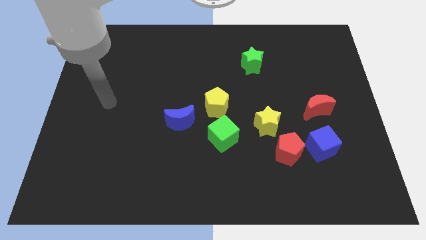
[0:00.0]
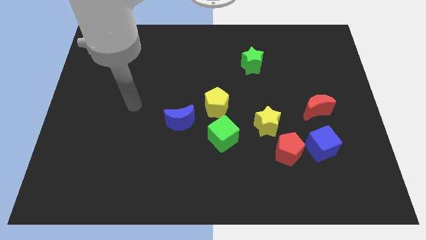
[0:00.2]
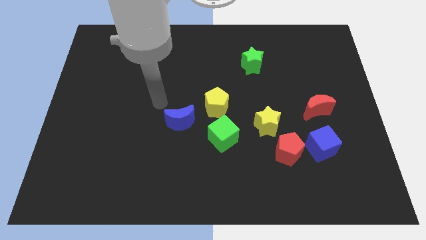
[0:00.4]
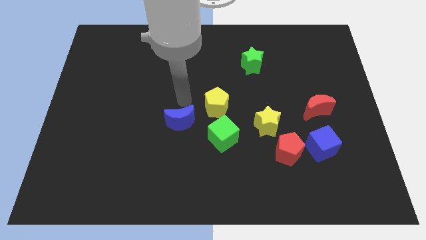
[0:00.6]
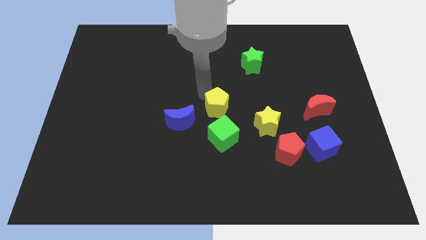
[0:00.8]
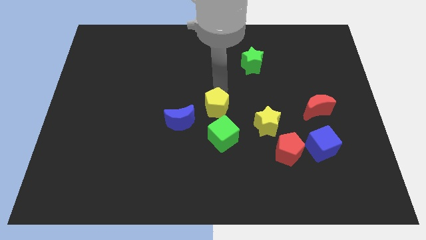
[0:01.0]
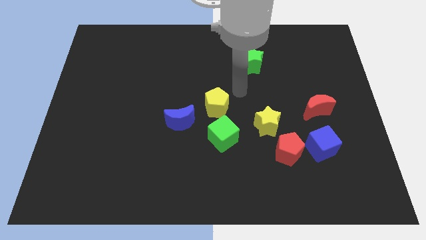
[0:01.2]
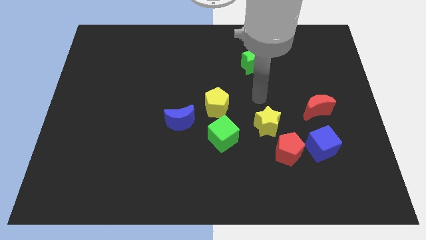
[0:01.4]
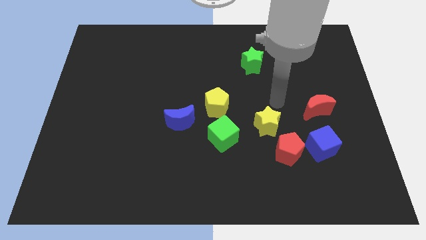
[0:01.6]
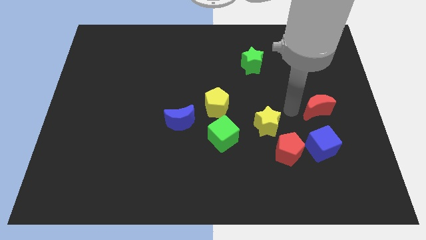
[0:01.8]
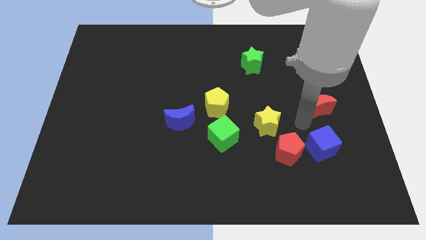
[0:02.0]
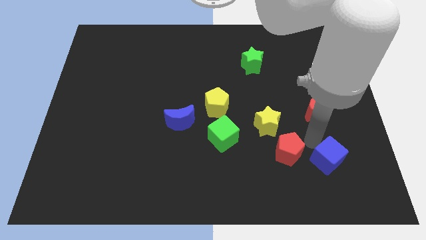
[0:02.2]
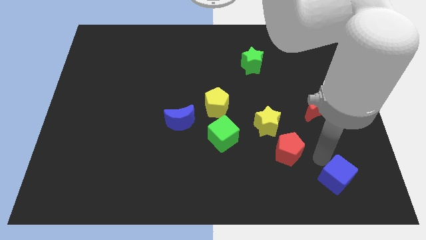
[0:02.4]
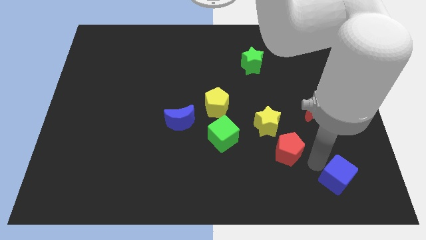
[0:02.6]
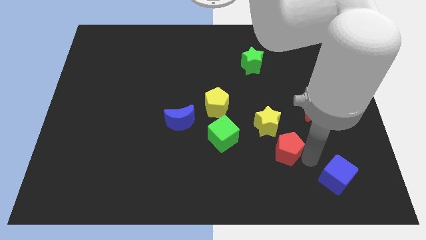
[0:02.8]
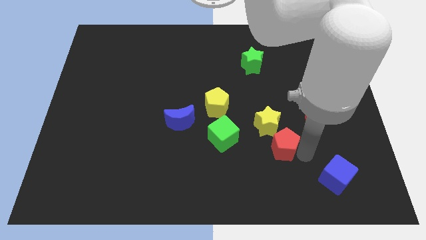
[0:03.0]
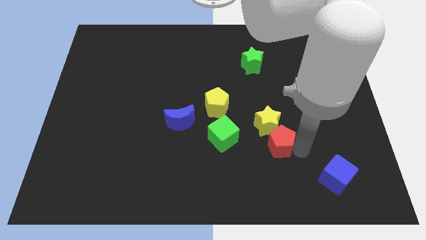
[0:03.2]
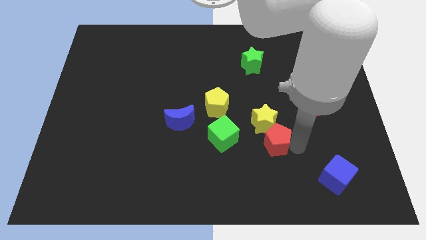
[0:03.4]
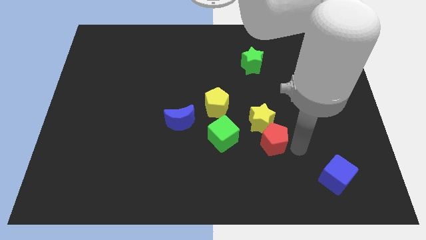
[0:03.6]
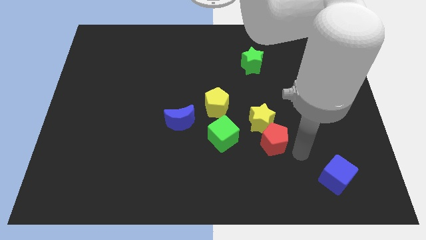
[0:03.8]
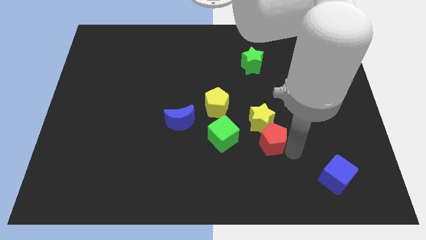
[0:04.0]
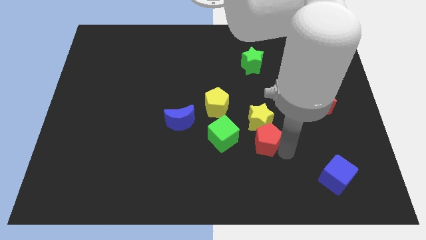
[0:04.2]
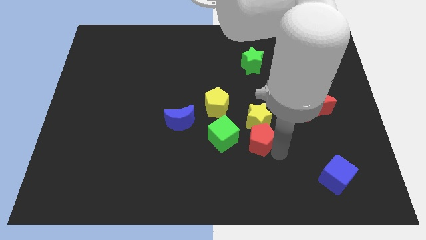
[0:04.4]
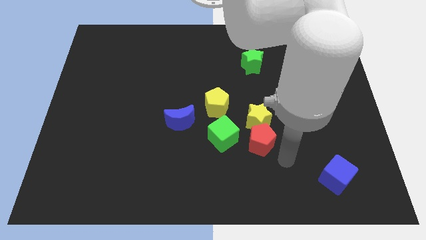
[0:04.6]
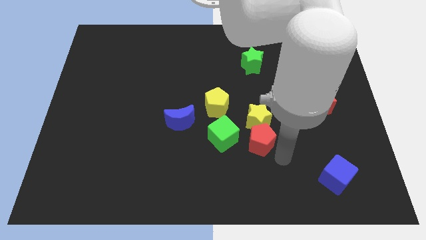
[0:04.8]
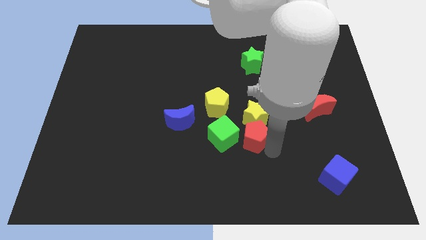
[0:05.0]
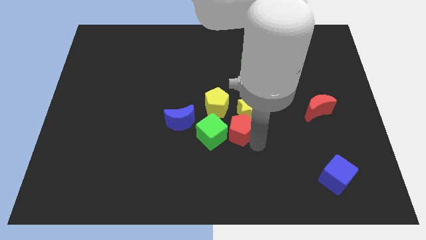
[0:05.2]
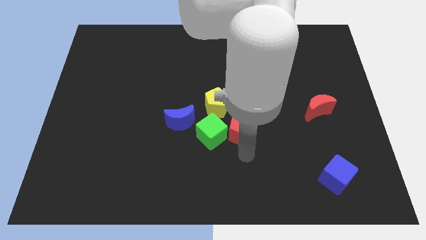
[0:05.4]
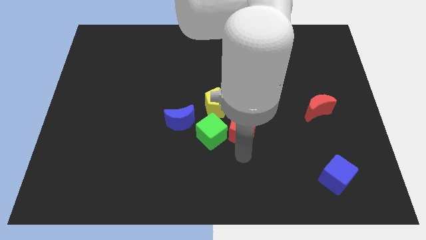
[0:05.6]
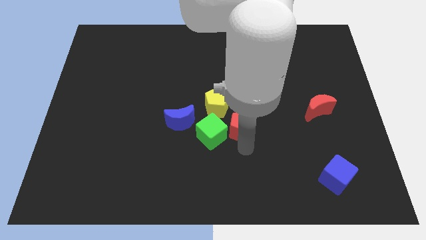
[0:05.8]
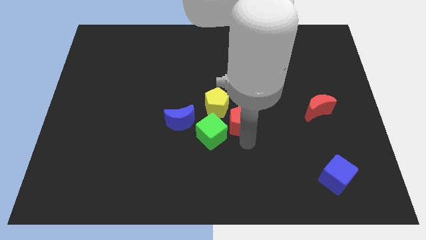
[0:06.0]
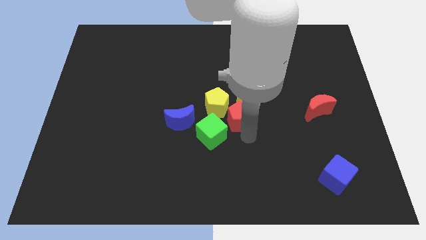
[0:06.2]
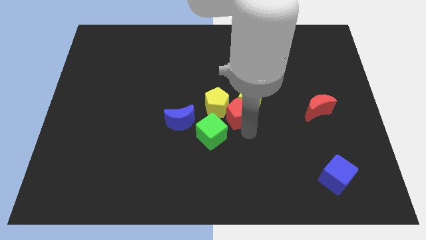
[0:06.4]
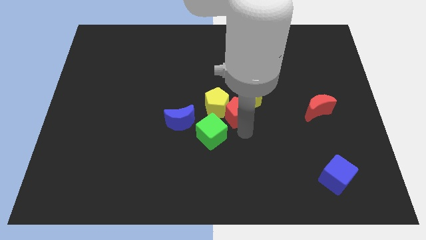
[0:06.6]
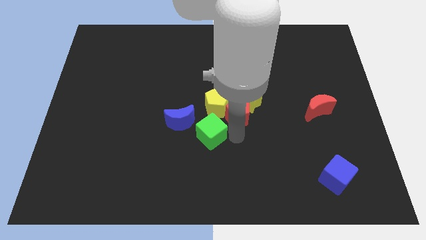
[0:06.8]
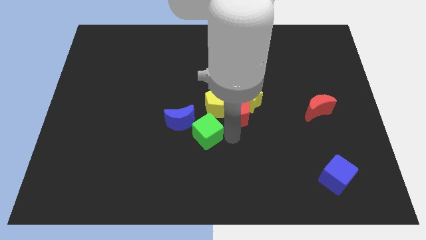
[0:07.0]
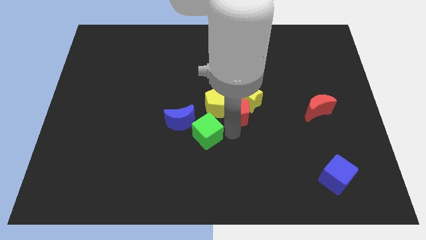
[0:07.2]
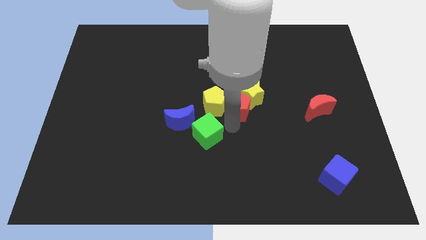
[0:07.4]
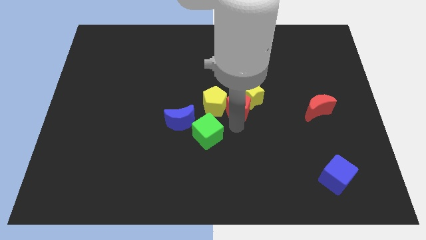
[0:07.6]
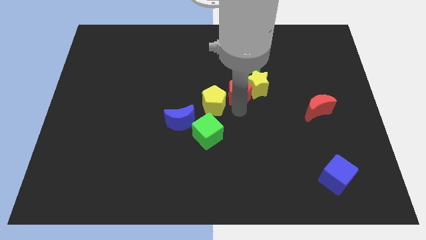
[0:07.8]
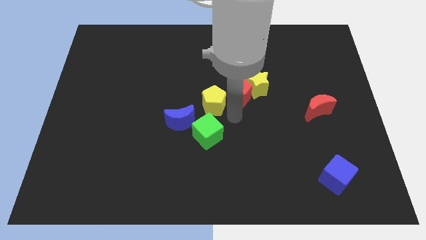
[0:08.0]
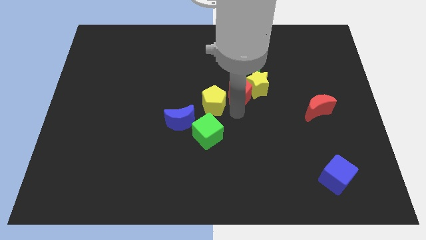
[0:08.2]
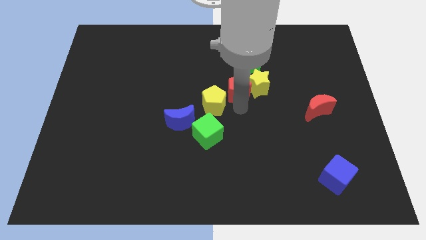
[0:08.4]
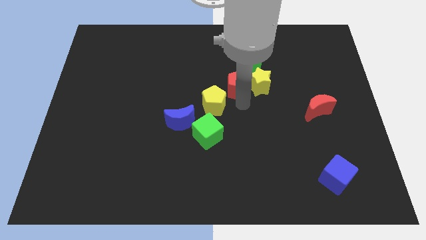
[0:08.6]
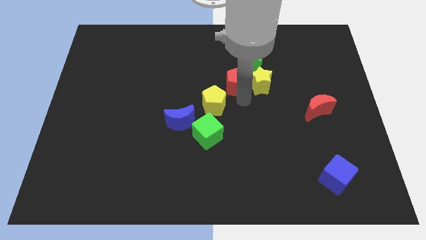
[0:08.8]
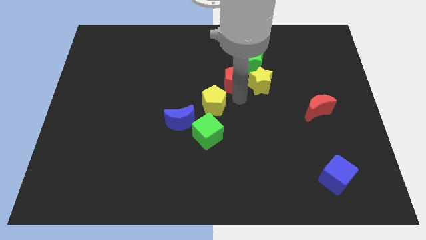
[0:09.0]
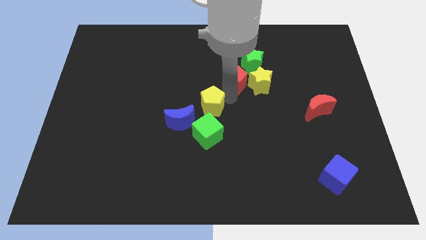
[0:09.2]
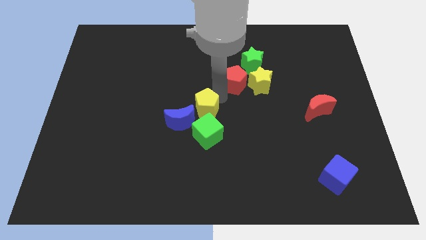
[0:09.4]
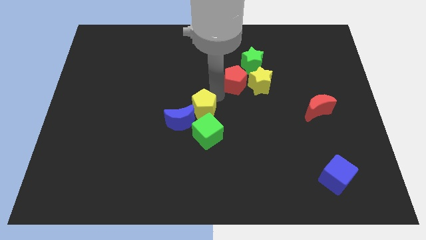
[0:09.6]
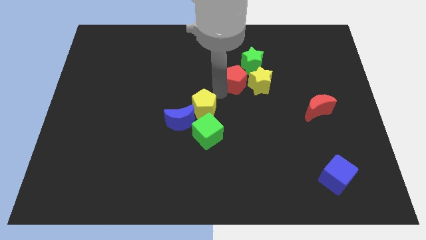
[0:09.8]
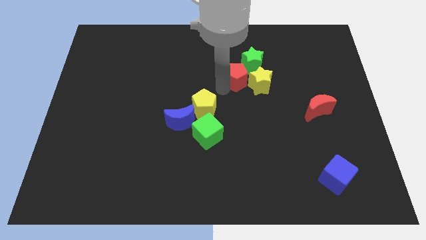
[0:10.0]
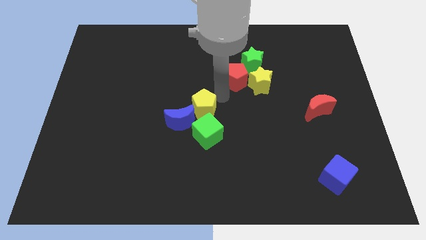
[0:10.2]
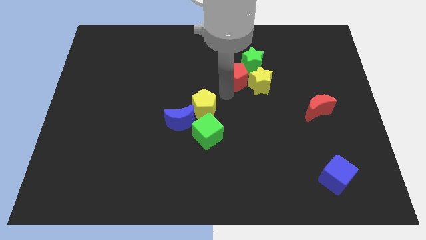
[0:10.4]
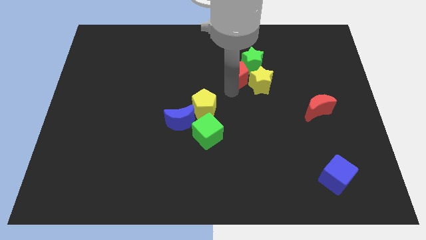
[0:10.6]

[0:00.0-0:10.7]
push the red pentagon close to the green star

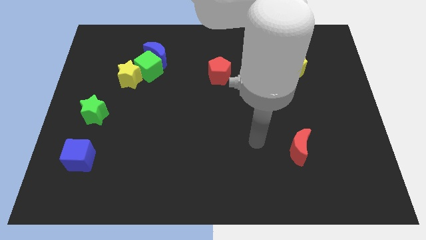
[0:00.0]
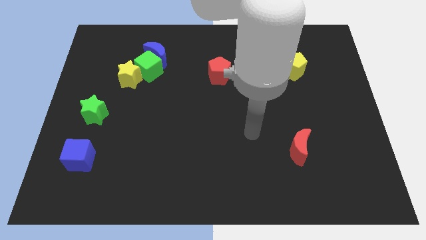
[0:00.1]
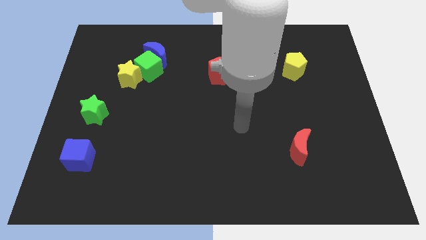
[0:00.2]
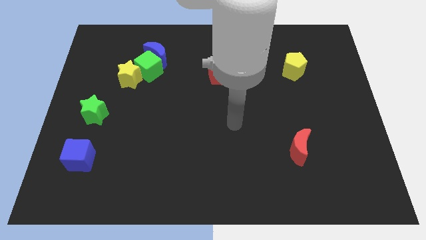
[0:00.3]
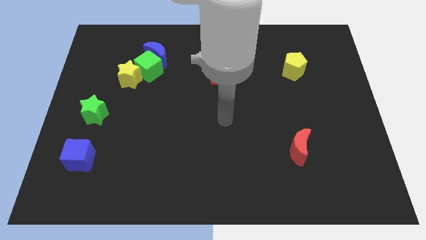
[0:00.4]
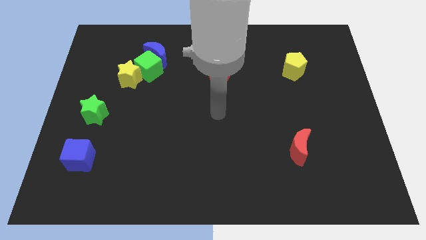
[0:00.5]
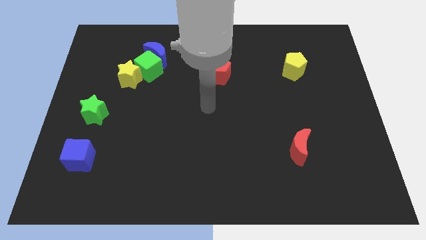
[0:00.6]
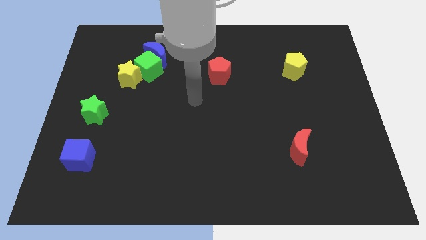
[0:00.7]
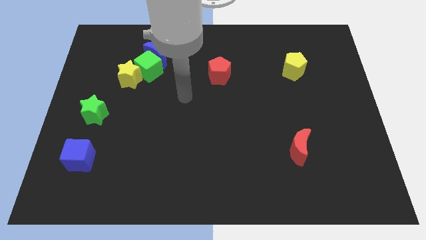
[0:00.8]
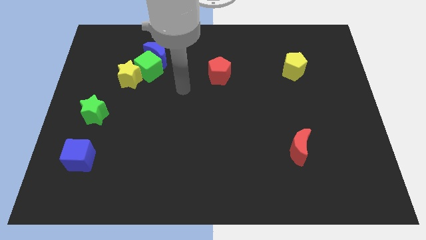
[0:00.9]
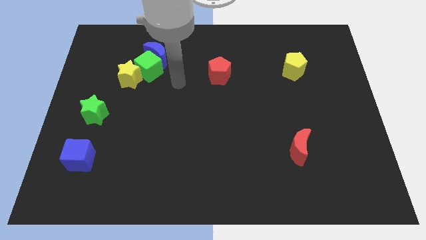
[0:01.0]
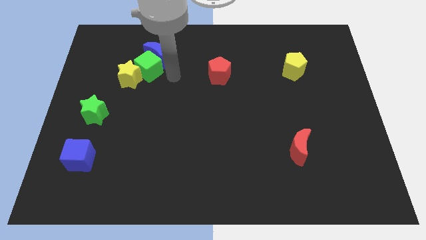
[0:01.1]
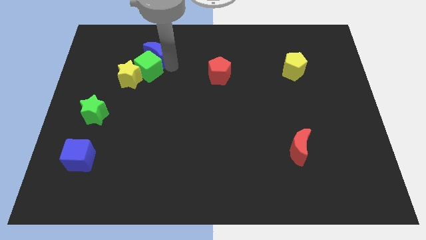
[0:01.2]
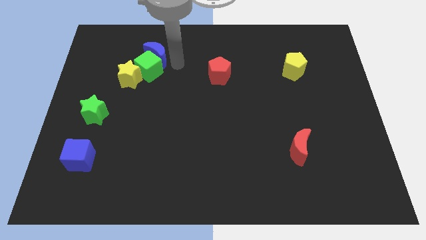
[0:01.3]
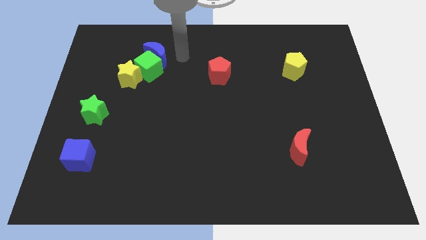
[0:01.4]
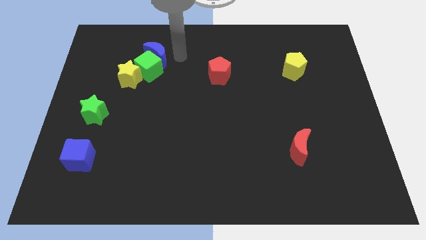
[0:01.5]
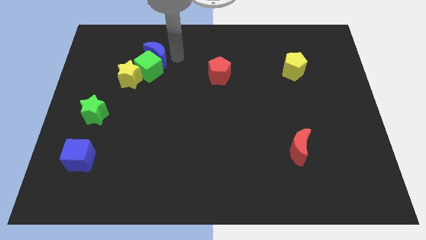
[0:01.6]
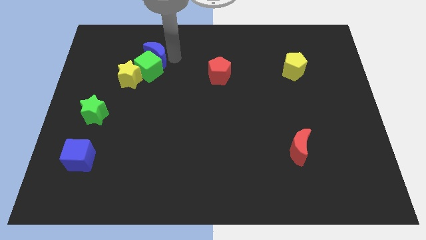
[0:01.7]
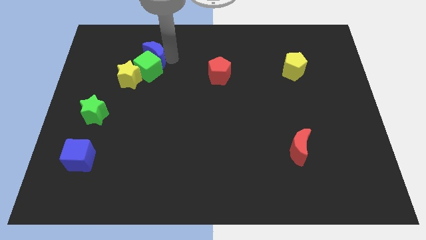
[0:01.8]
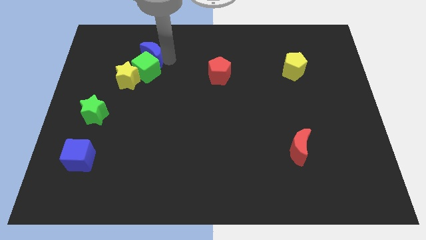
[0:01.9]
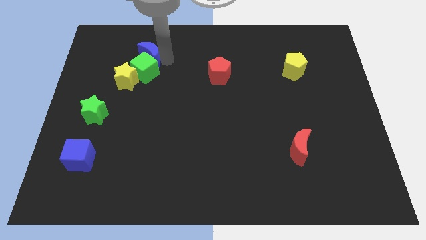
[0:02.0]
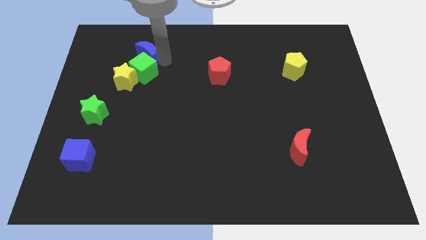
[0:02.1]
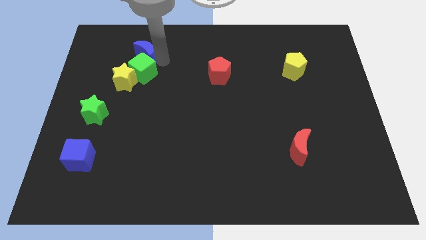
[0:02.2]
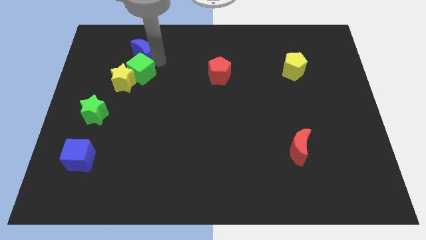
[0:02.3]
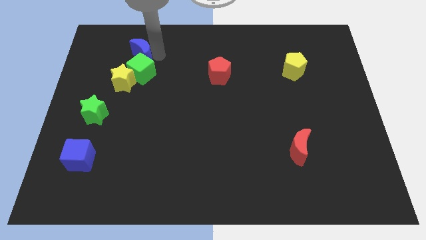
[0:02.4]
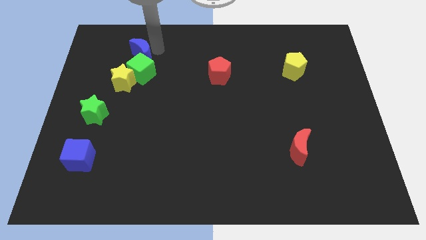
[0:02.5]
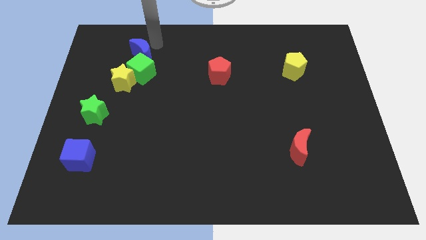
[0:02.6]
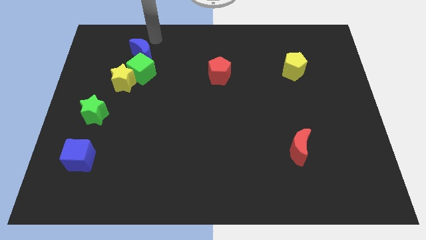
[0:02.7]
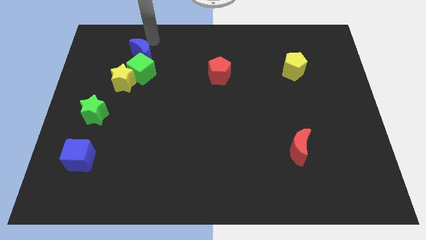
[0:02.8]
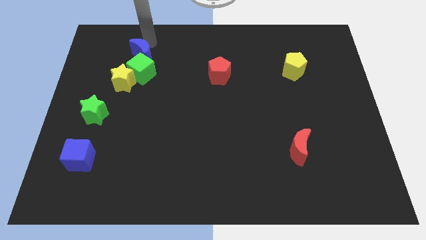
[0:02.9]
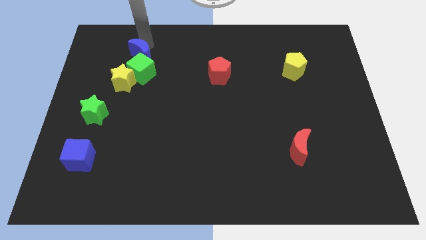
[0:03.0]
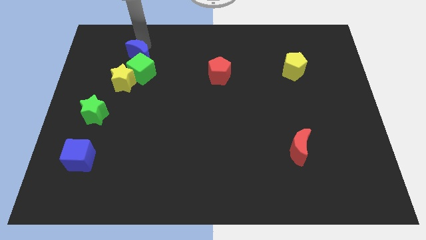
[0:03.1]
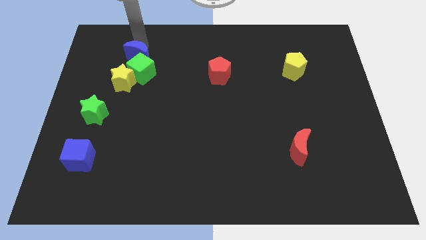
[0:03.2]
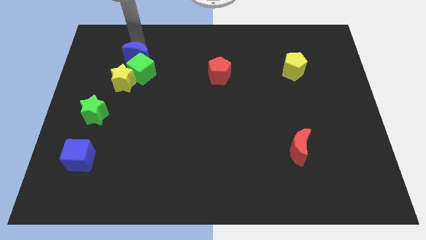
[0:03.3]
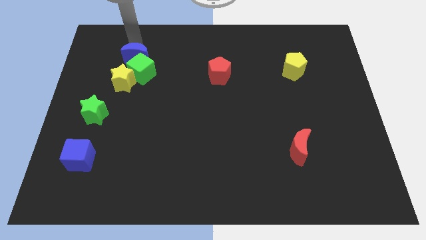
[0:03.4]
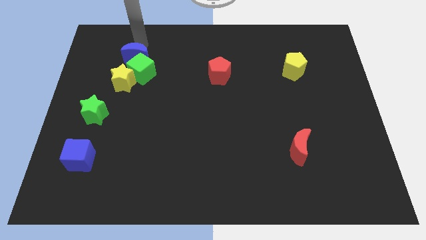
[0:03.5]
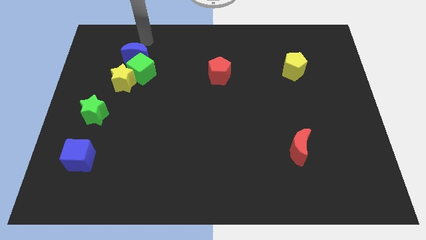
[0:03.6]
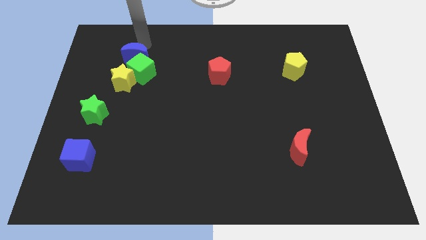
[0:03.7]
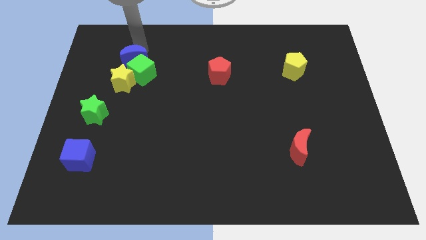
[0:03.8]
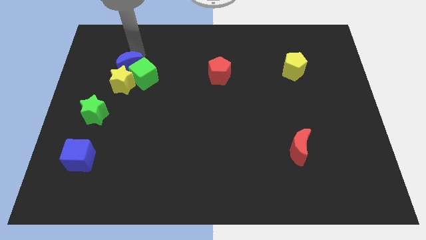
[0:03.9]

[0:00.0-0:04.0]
slide the blue moon to the yellow star
